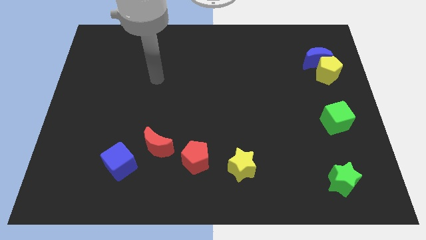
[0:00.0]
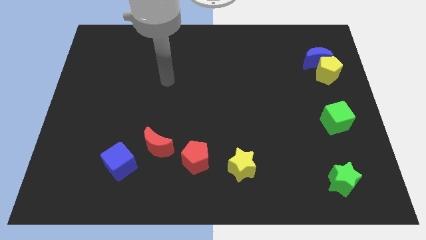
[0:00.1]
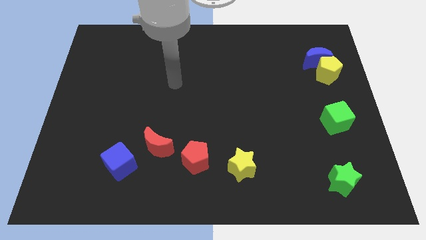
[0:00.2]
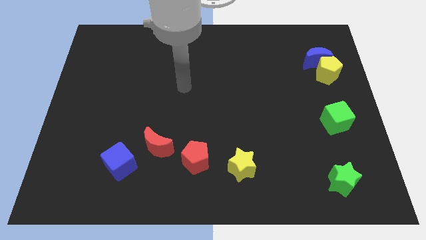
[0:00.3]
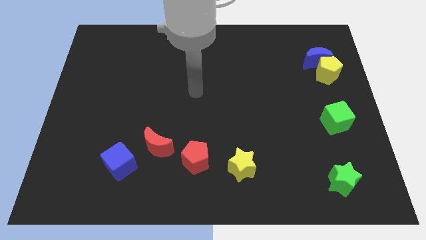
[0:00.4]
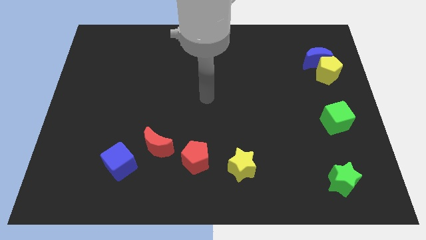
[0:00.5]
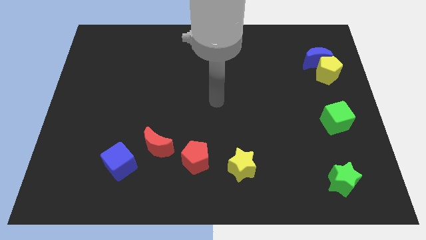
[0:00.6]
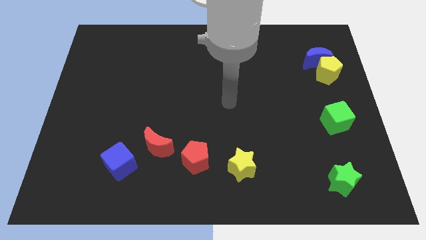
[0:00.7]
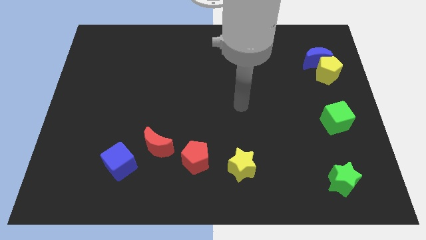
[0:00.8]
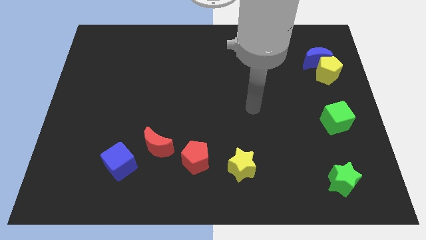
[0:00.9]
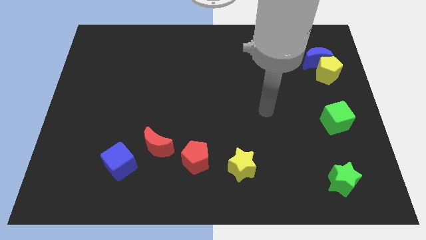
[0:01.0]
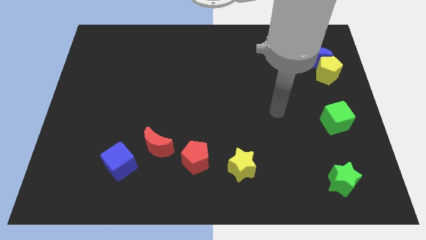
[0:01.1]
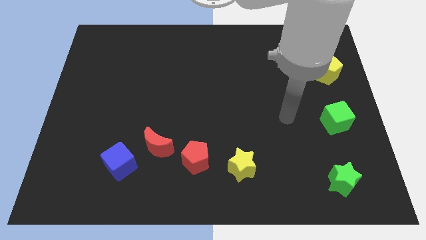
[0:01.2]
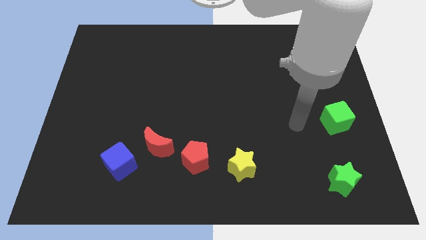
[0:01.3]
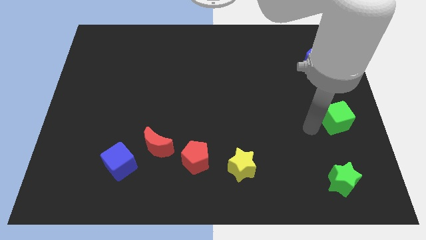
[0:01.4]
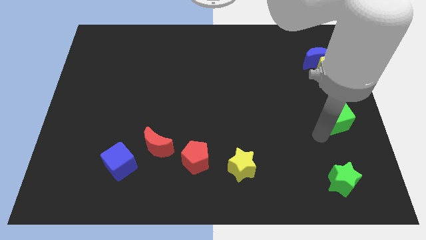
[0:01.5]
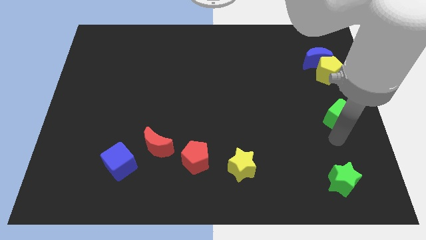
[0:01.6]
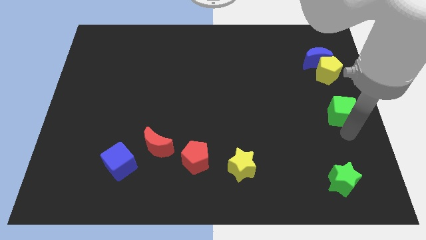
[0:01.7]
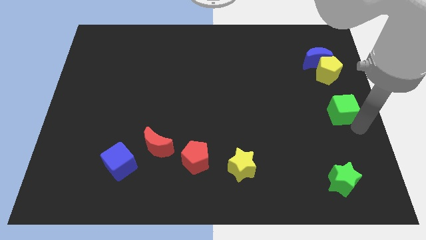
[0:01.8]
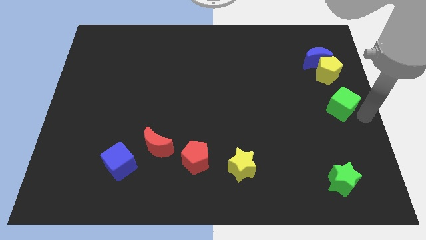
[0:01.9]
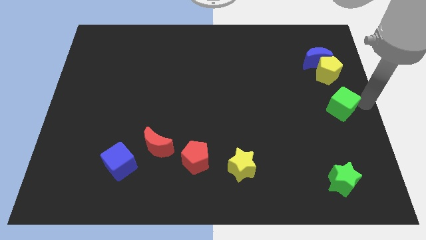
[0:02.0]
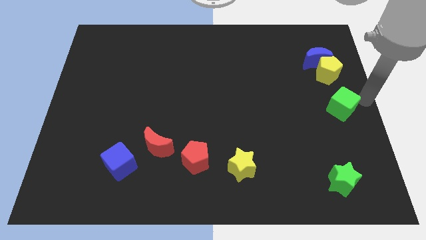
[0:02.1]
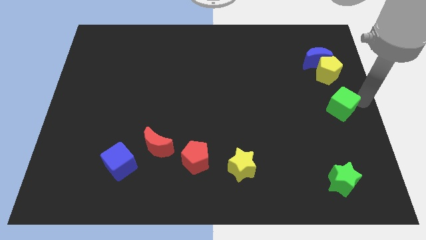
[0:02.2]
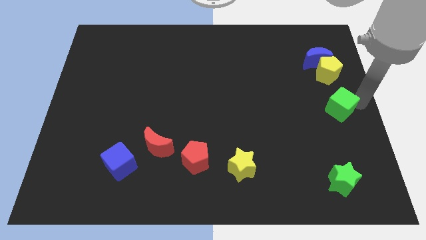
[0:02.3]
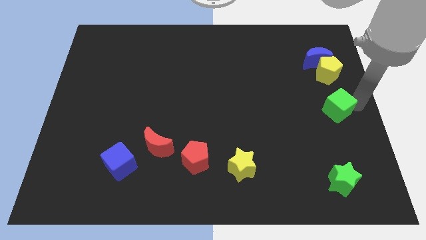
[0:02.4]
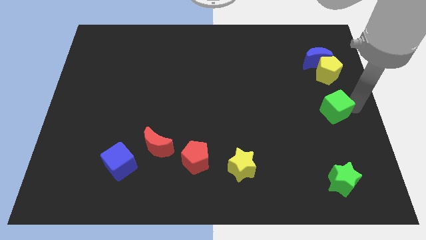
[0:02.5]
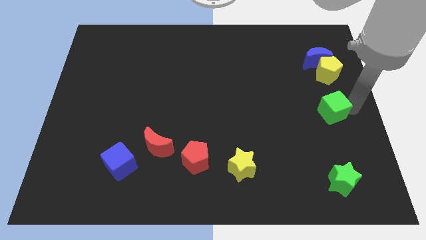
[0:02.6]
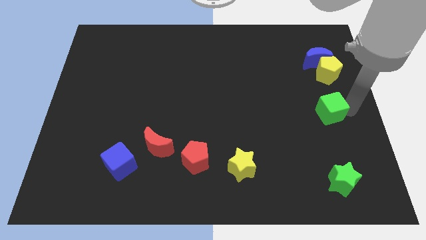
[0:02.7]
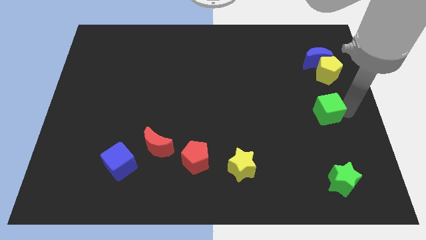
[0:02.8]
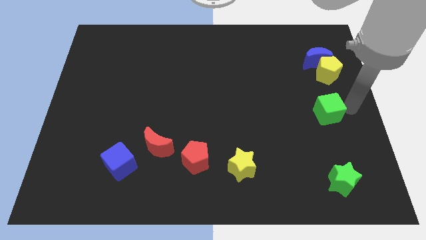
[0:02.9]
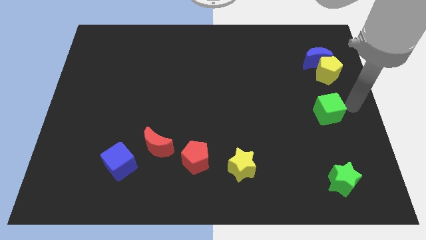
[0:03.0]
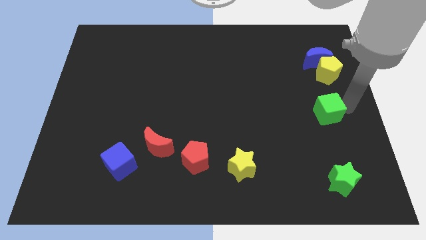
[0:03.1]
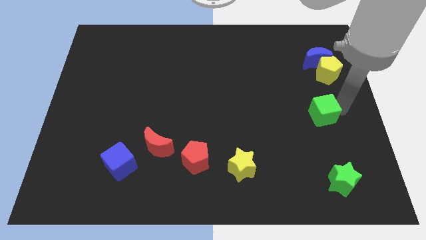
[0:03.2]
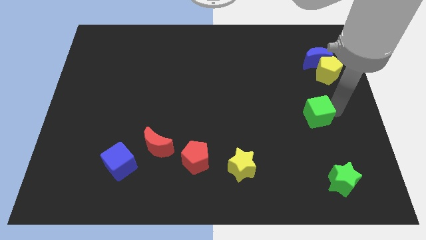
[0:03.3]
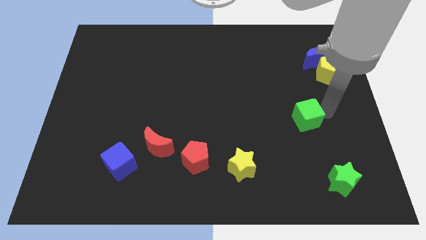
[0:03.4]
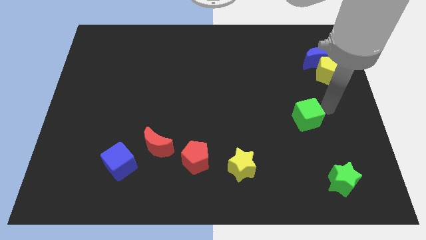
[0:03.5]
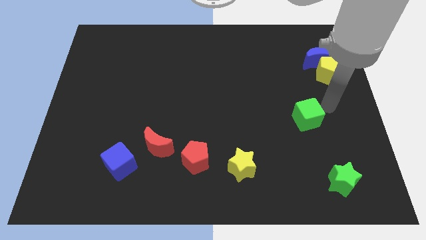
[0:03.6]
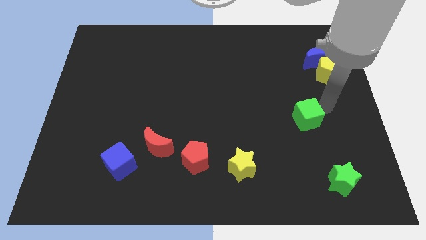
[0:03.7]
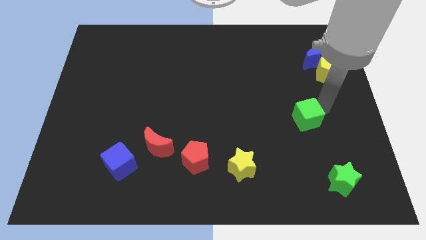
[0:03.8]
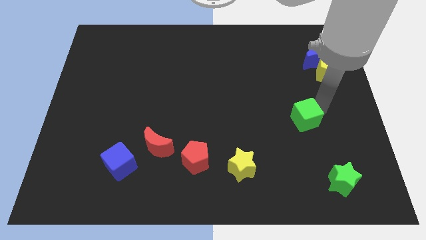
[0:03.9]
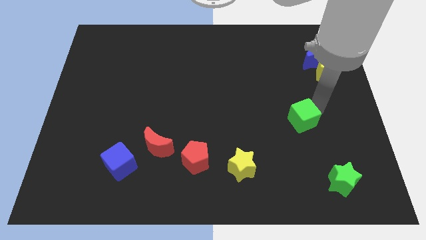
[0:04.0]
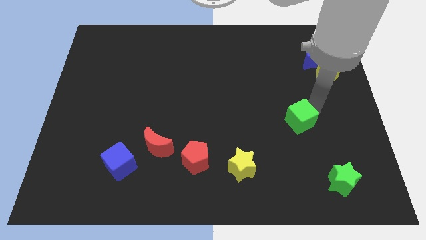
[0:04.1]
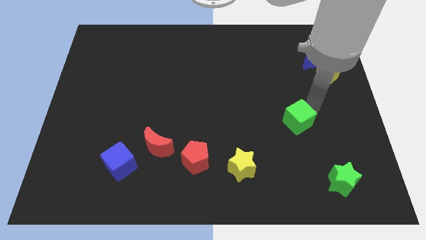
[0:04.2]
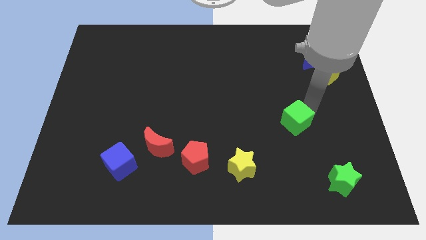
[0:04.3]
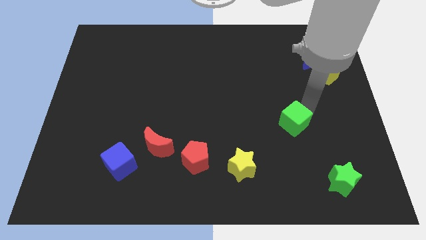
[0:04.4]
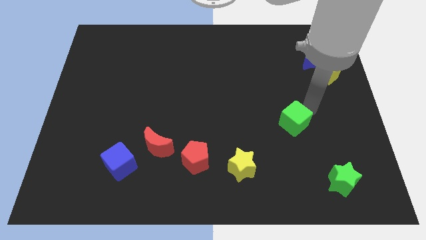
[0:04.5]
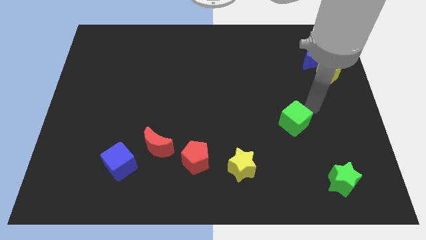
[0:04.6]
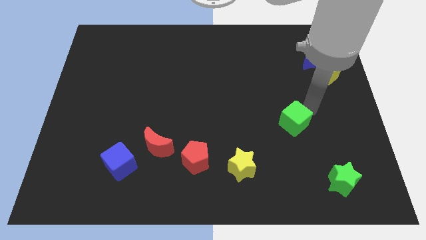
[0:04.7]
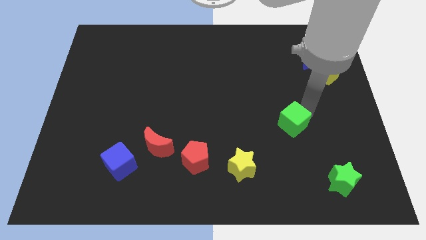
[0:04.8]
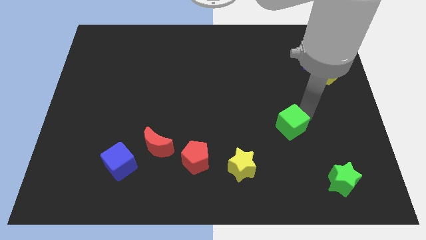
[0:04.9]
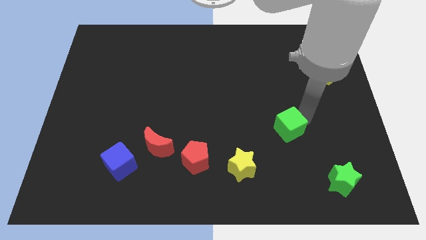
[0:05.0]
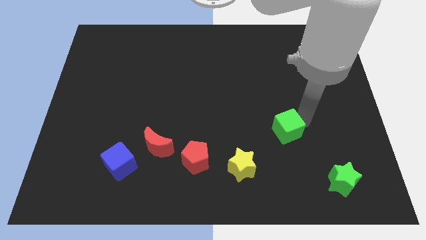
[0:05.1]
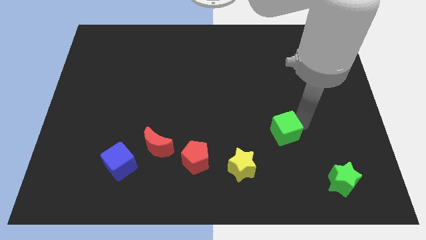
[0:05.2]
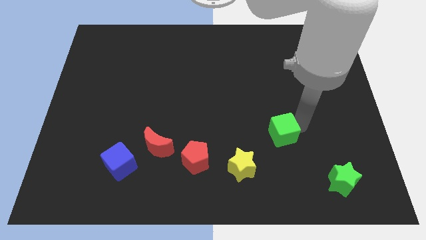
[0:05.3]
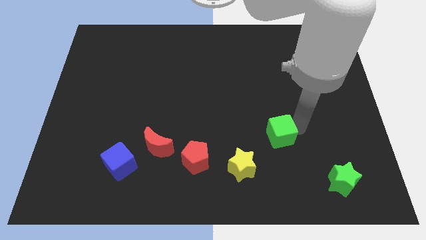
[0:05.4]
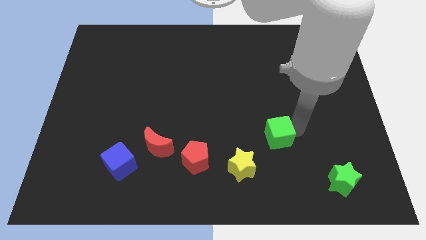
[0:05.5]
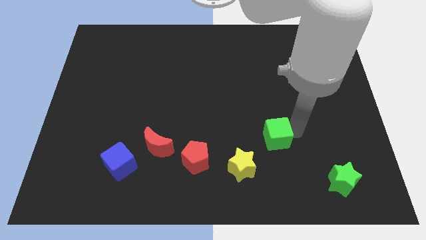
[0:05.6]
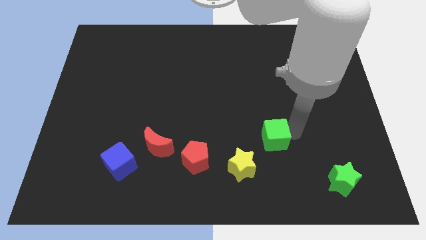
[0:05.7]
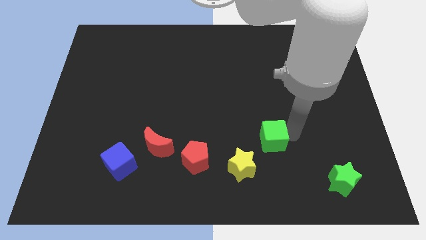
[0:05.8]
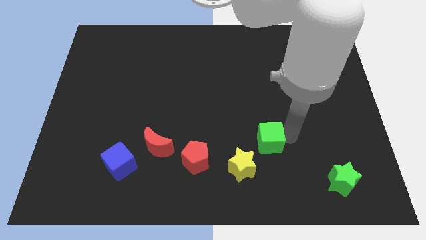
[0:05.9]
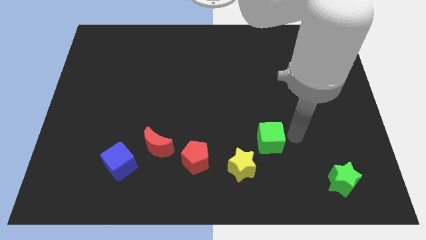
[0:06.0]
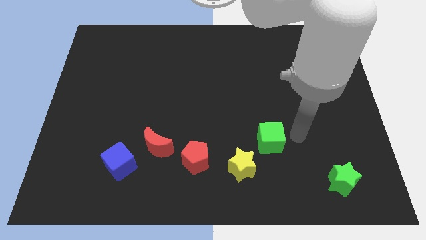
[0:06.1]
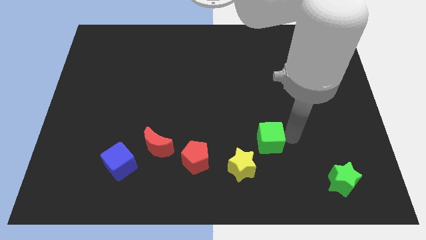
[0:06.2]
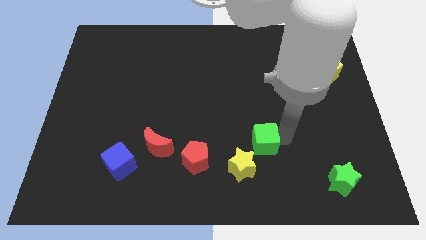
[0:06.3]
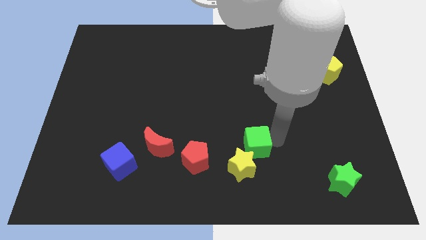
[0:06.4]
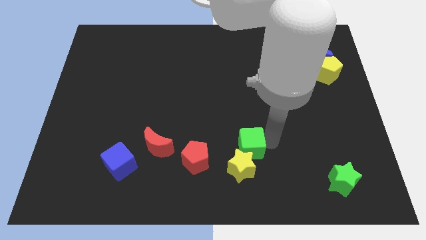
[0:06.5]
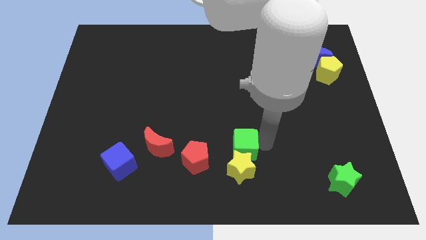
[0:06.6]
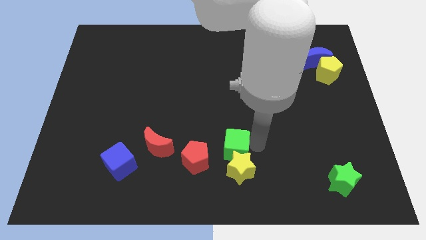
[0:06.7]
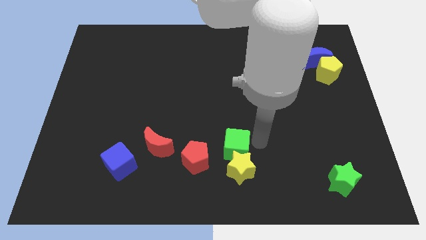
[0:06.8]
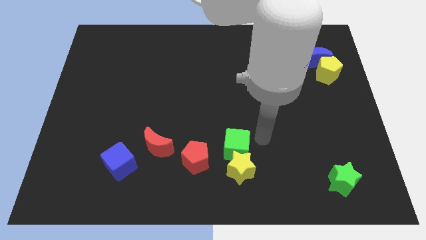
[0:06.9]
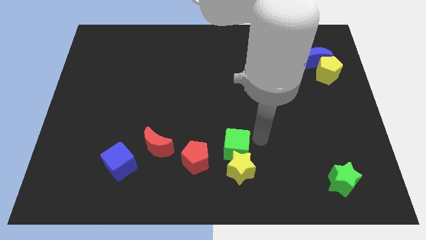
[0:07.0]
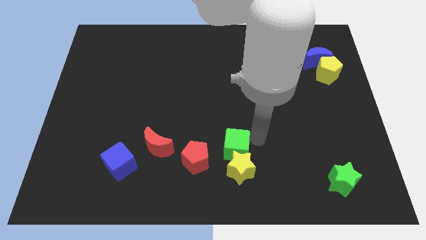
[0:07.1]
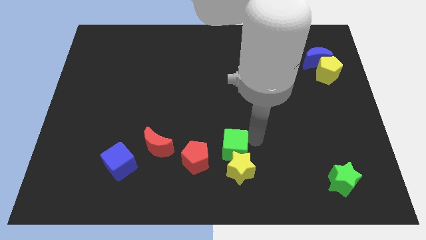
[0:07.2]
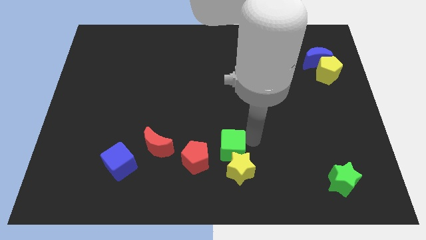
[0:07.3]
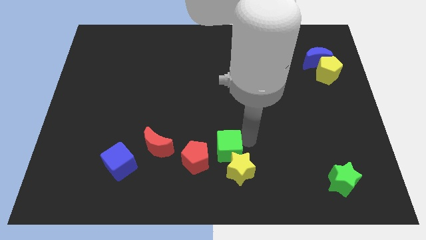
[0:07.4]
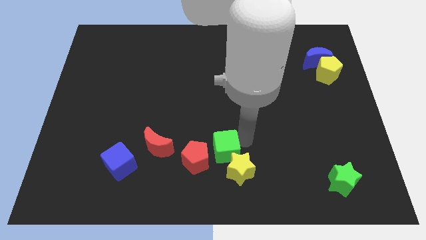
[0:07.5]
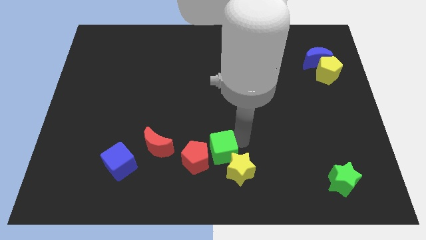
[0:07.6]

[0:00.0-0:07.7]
push the green cube close to the red pentagon
